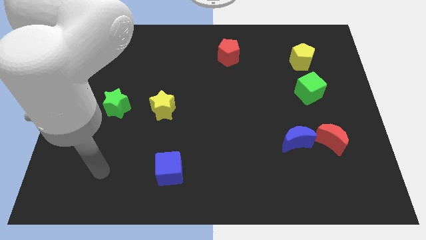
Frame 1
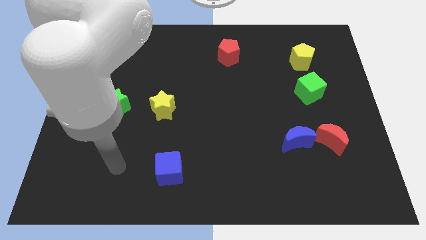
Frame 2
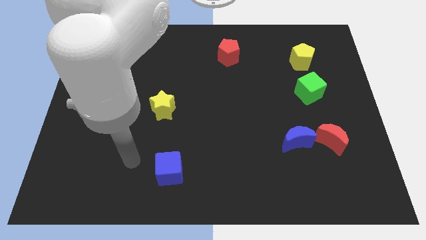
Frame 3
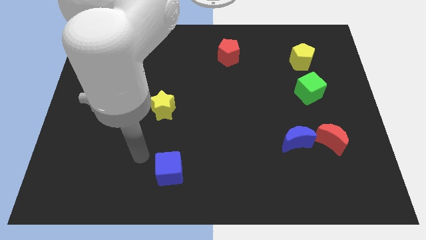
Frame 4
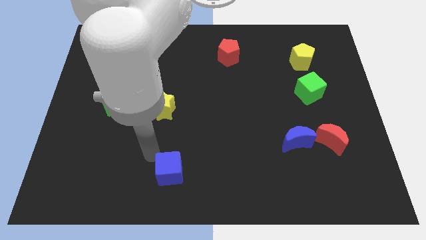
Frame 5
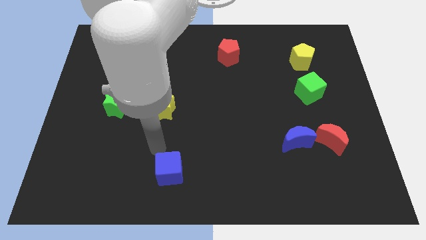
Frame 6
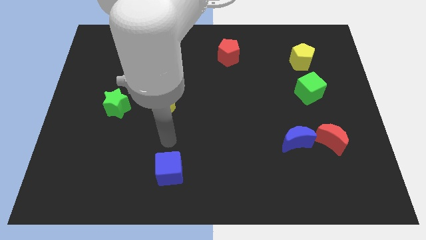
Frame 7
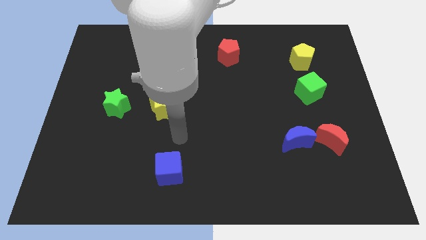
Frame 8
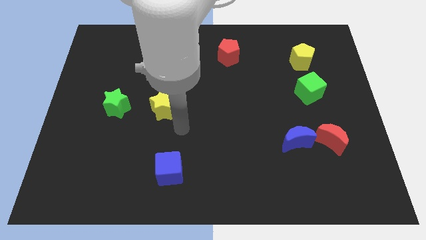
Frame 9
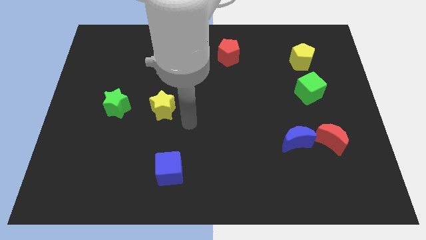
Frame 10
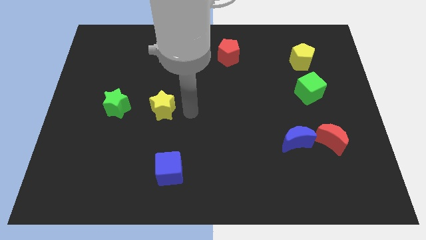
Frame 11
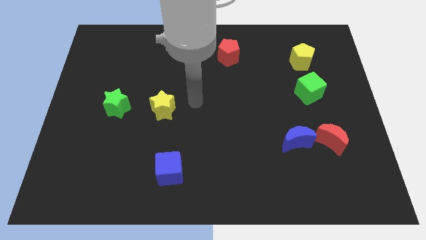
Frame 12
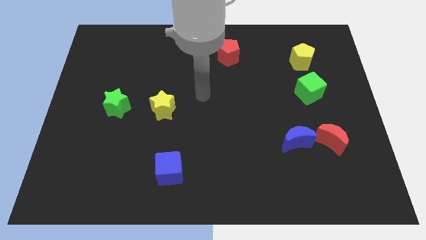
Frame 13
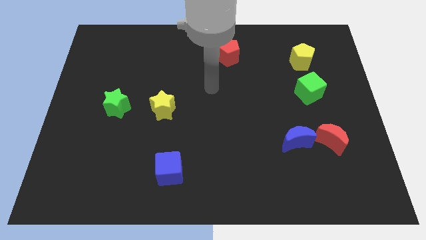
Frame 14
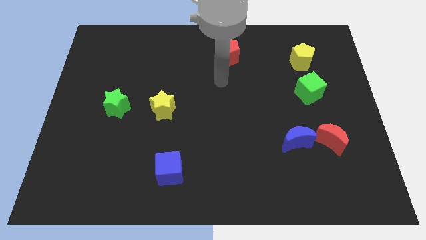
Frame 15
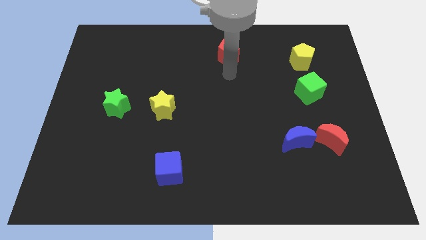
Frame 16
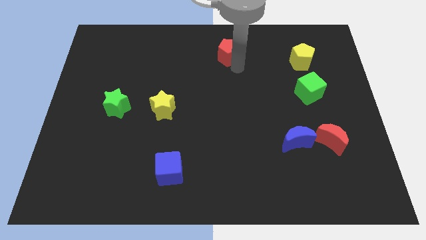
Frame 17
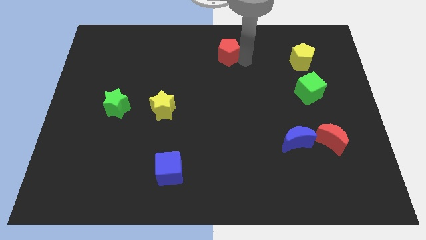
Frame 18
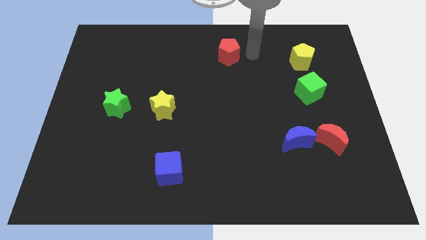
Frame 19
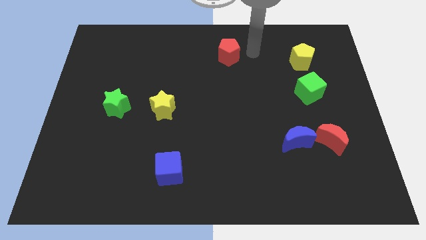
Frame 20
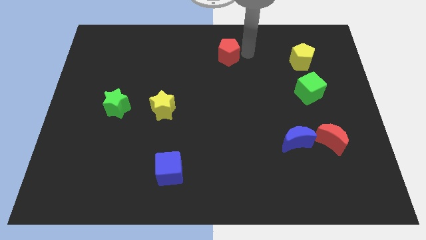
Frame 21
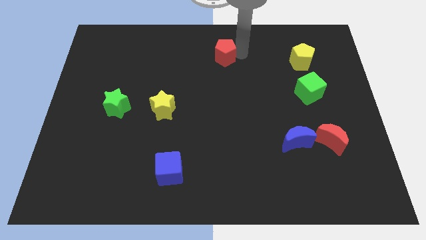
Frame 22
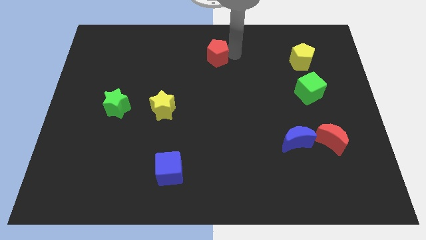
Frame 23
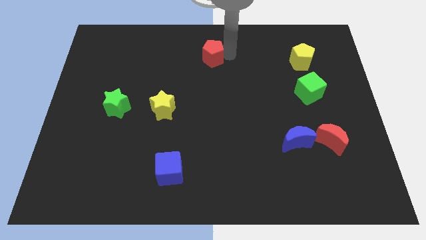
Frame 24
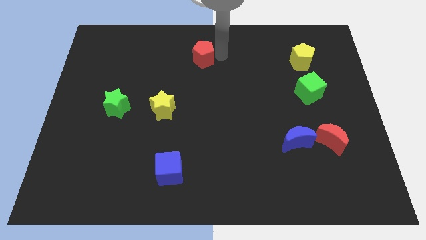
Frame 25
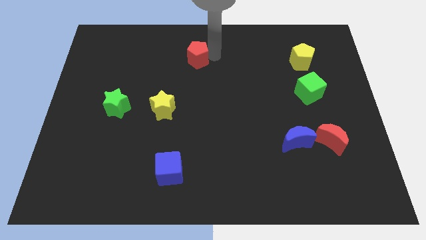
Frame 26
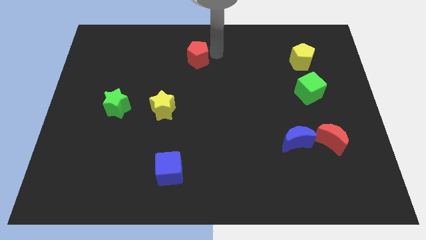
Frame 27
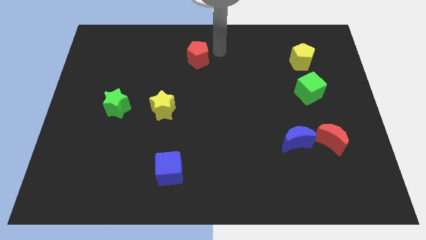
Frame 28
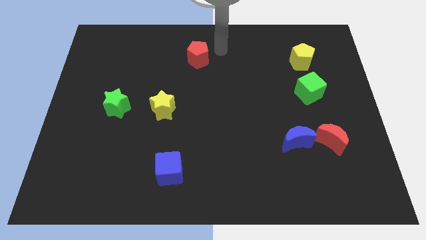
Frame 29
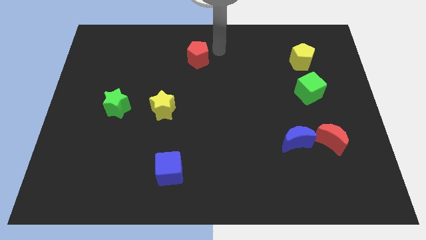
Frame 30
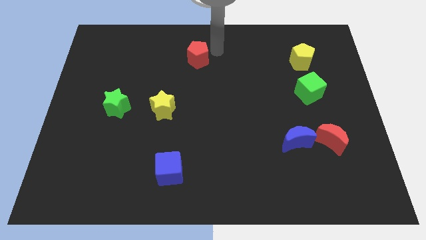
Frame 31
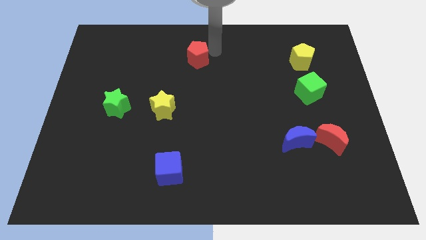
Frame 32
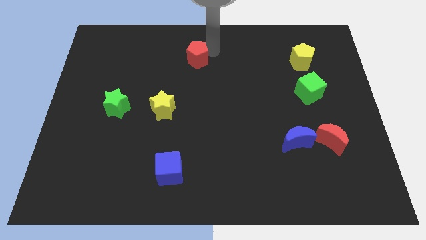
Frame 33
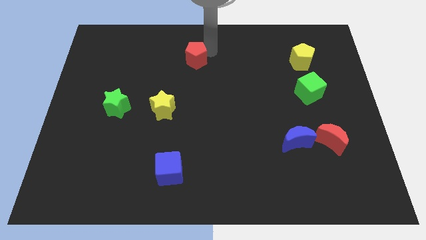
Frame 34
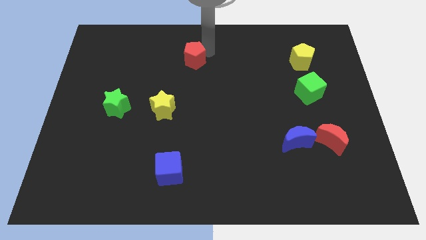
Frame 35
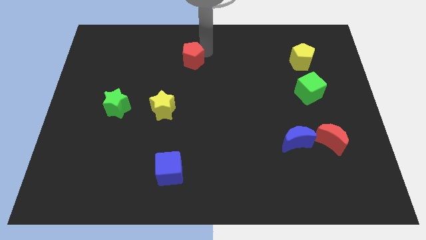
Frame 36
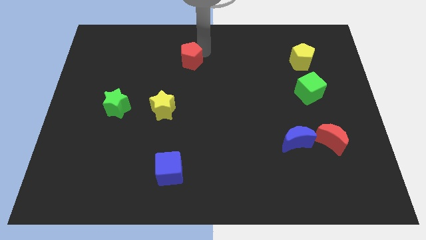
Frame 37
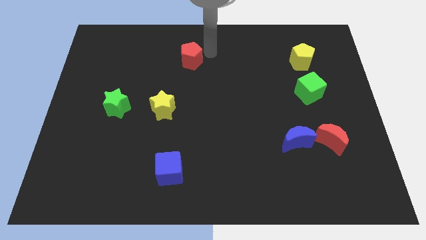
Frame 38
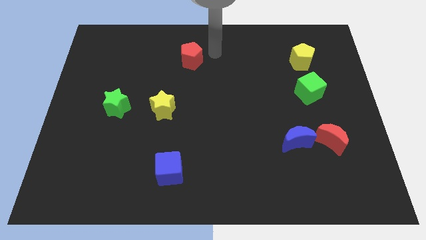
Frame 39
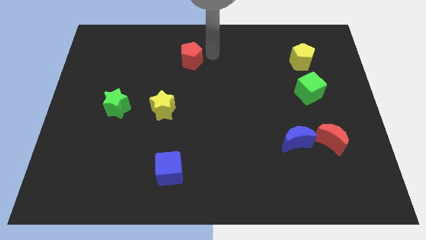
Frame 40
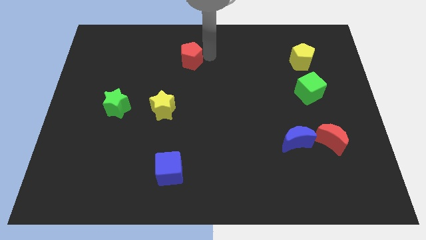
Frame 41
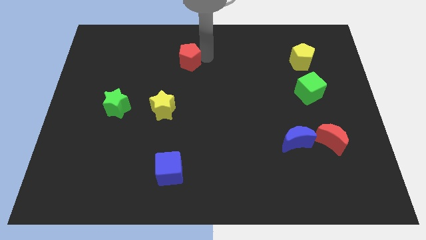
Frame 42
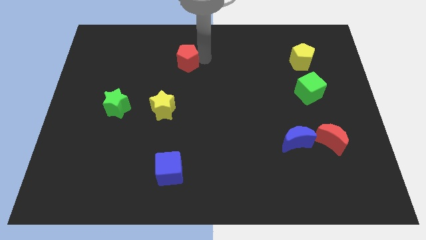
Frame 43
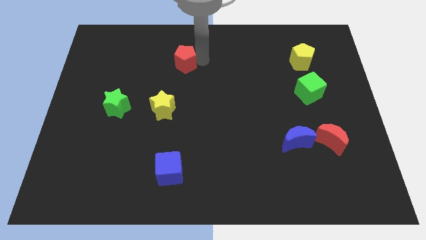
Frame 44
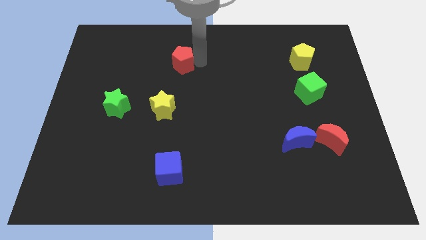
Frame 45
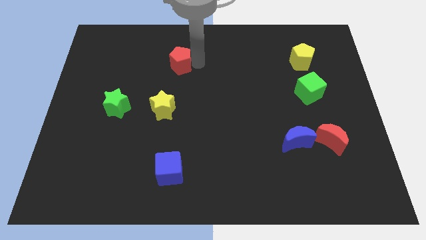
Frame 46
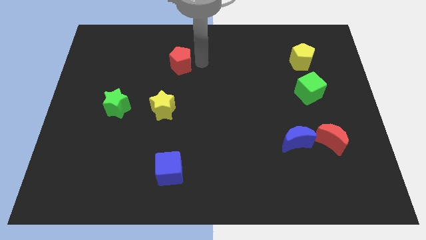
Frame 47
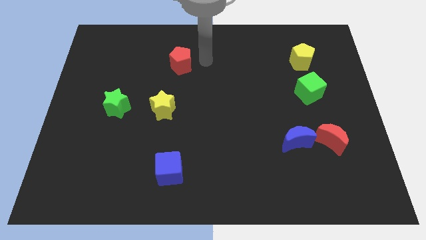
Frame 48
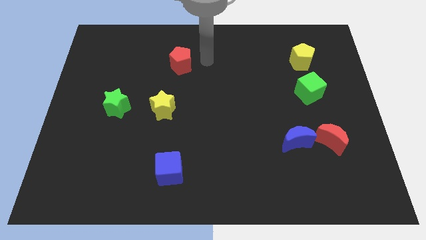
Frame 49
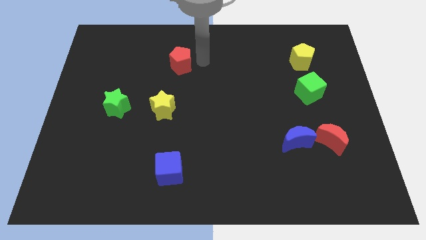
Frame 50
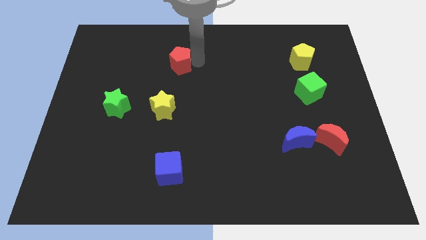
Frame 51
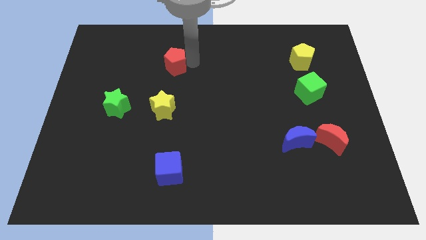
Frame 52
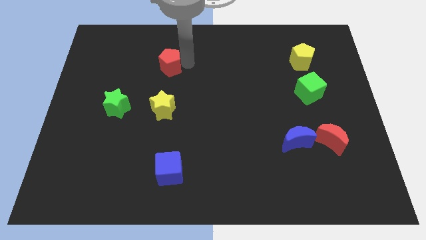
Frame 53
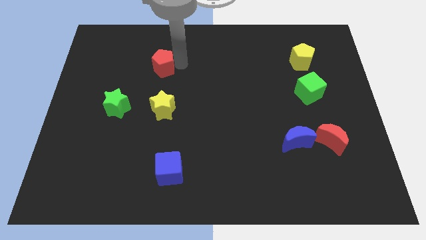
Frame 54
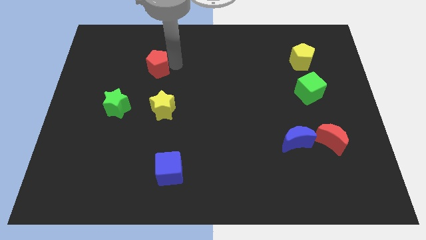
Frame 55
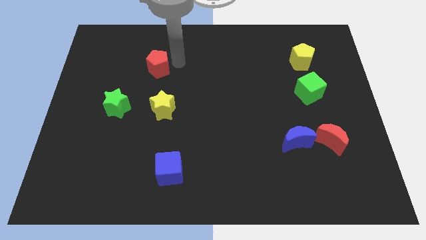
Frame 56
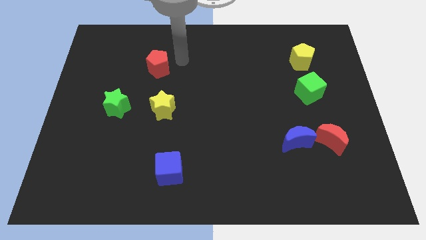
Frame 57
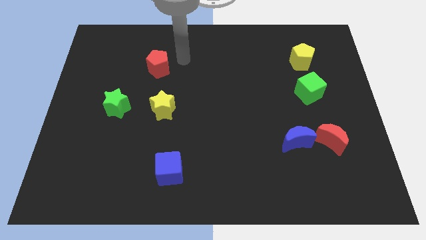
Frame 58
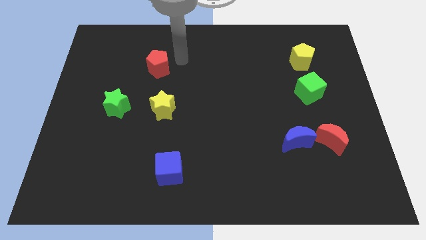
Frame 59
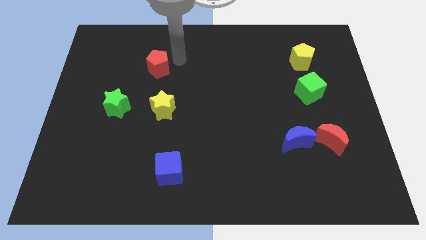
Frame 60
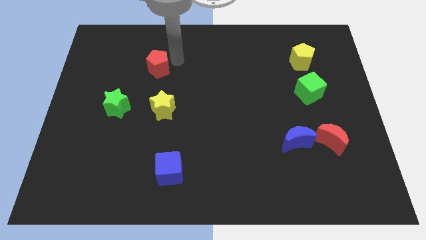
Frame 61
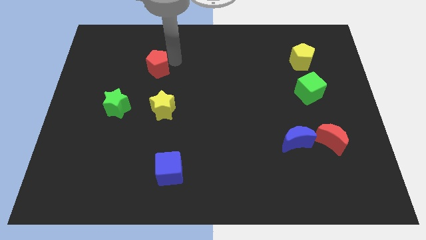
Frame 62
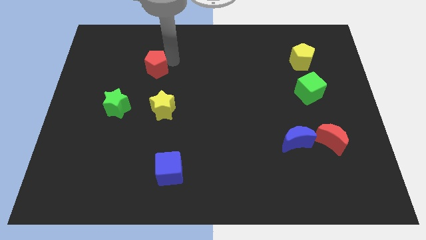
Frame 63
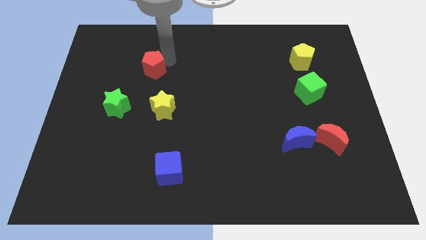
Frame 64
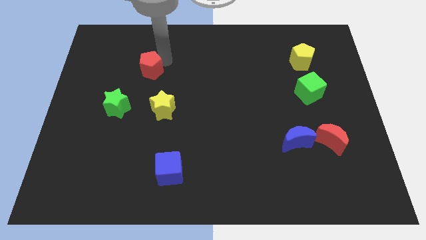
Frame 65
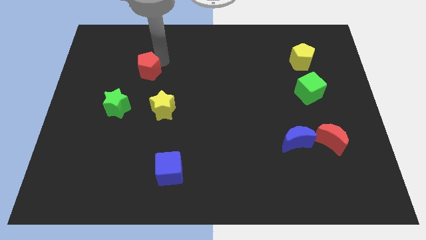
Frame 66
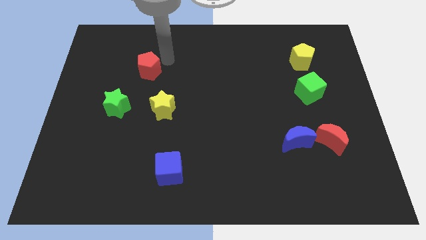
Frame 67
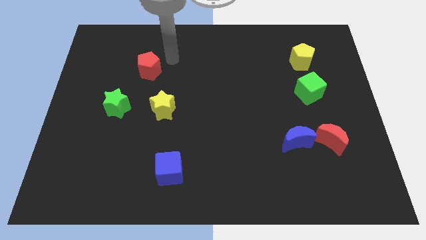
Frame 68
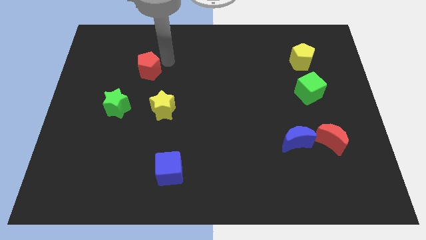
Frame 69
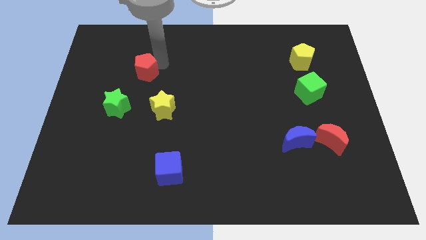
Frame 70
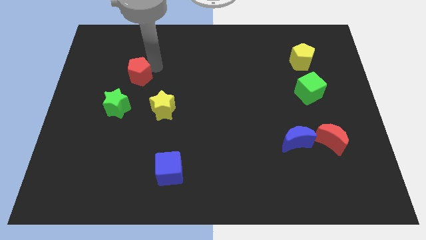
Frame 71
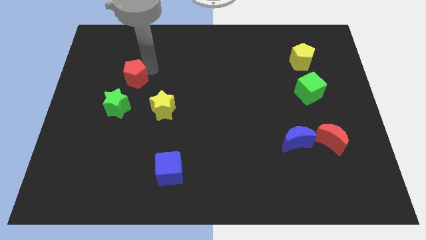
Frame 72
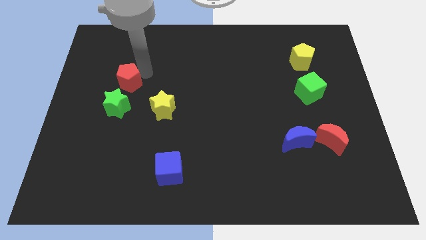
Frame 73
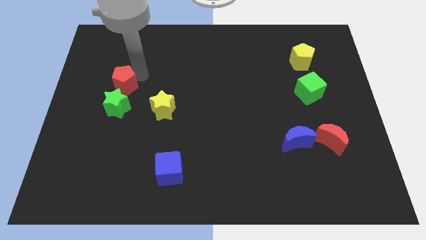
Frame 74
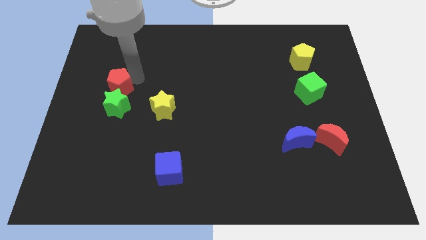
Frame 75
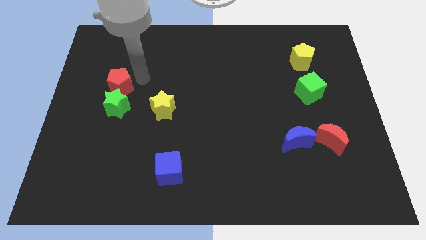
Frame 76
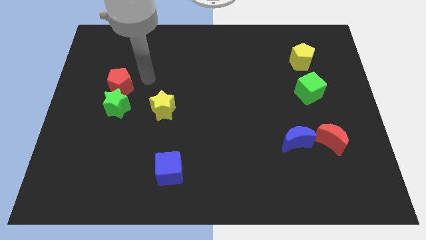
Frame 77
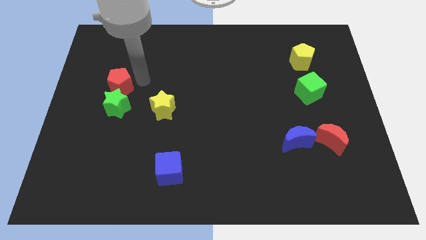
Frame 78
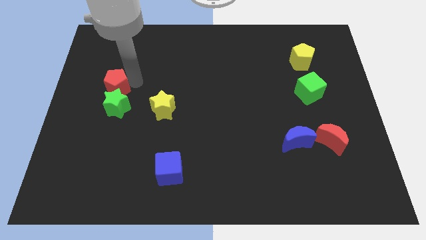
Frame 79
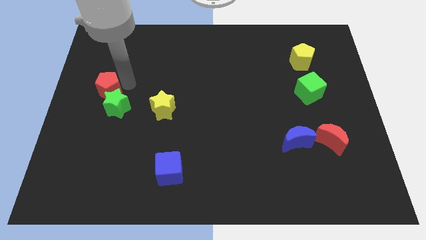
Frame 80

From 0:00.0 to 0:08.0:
push the red pentagon to the left side of the board
